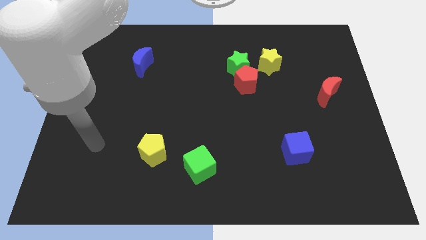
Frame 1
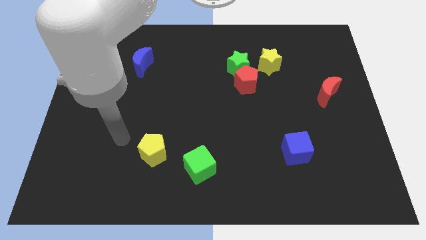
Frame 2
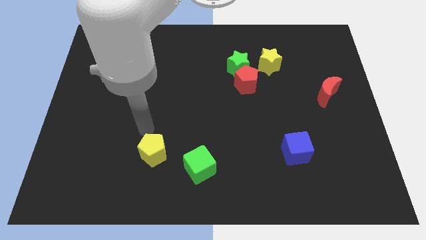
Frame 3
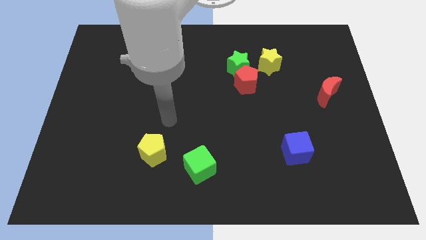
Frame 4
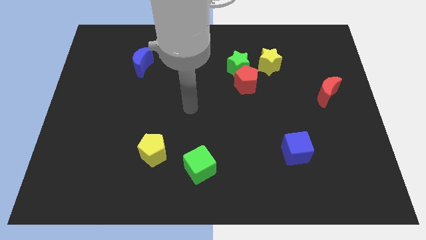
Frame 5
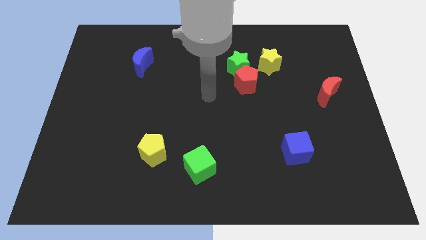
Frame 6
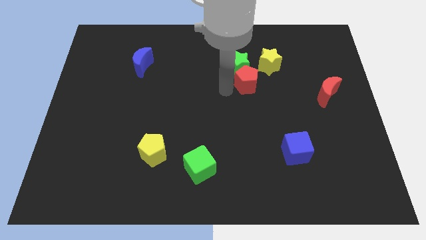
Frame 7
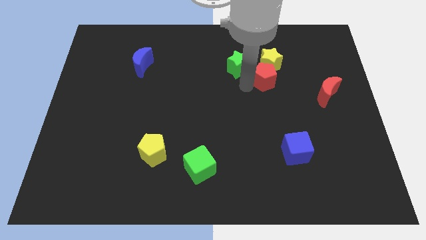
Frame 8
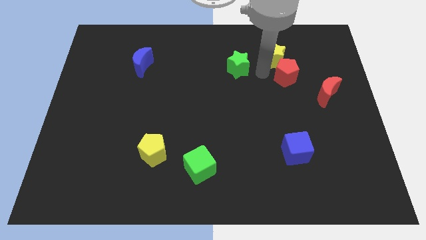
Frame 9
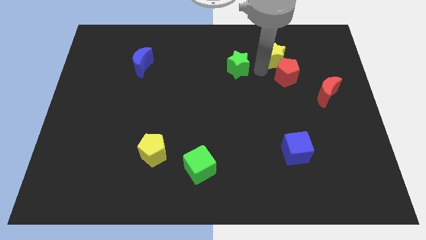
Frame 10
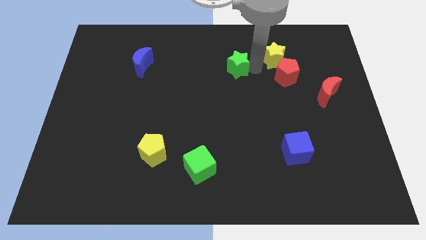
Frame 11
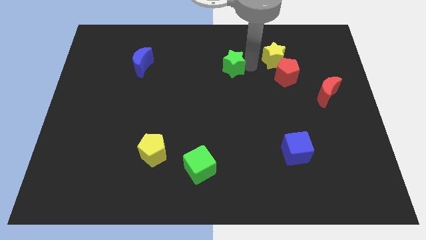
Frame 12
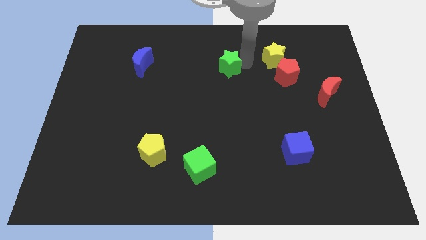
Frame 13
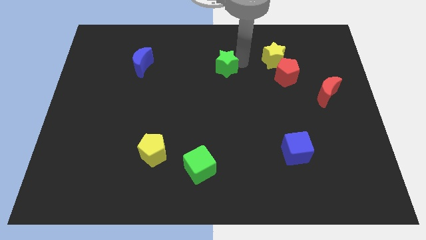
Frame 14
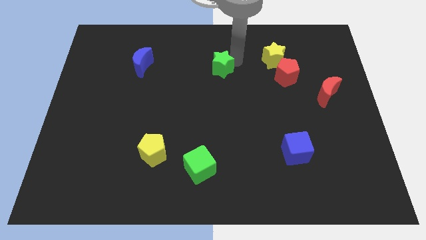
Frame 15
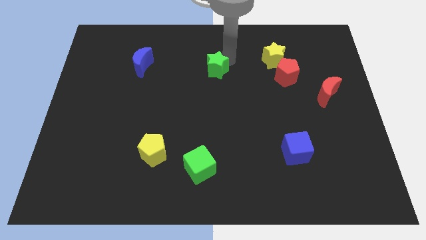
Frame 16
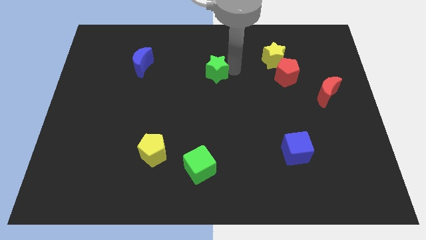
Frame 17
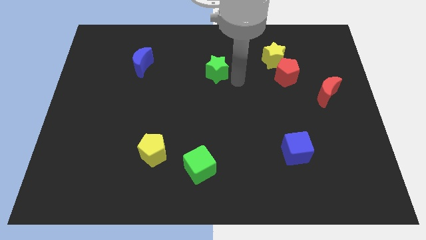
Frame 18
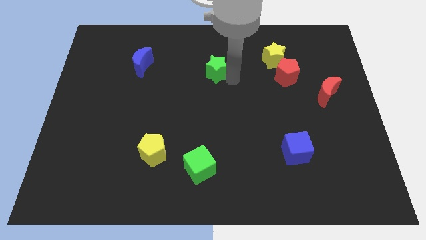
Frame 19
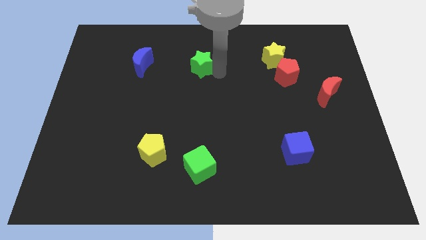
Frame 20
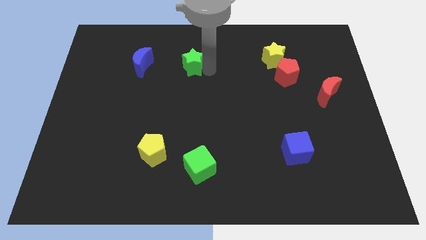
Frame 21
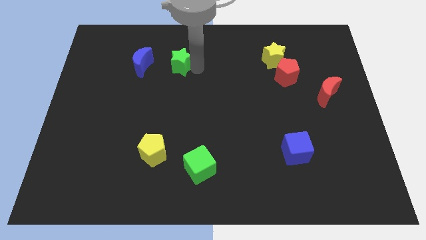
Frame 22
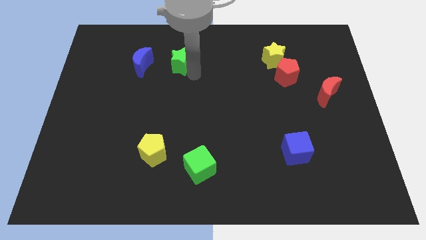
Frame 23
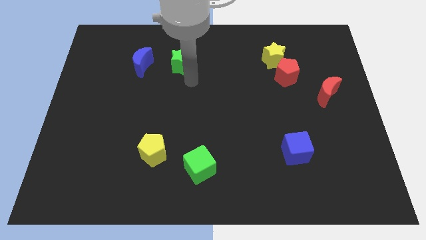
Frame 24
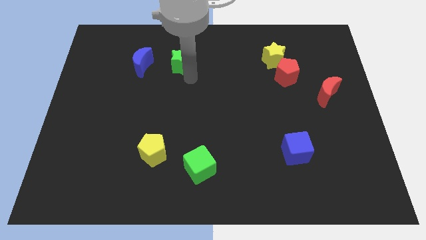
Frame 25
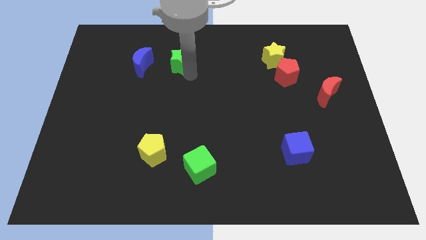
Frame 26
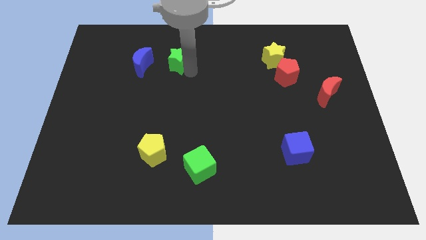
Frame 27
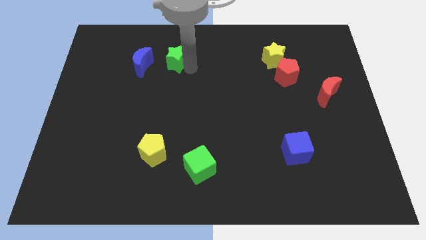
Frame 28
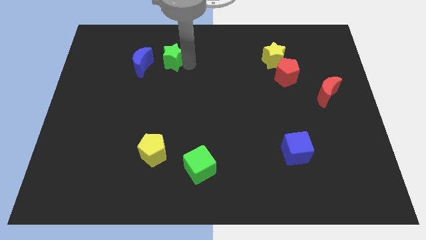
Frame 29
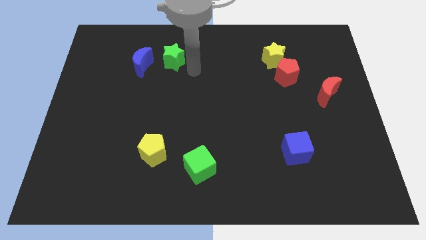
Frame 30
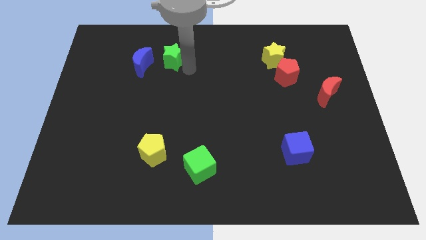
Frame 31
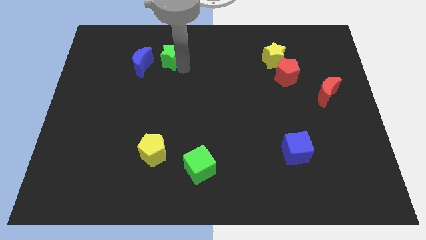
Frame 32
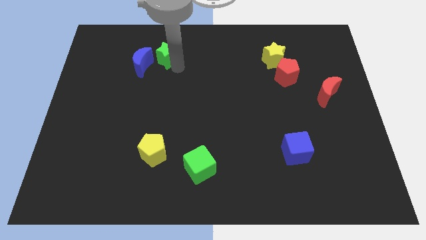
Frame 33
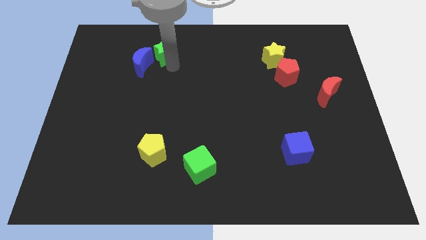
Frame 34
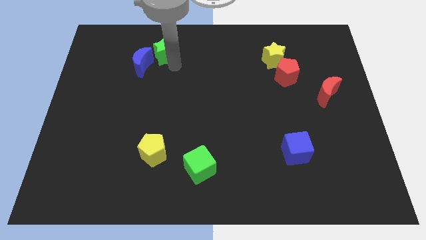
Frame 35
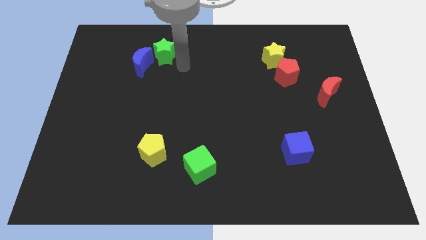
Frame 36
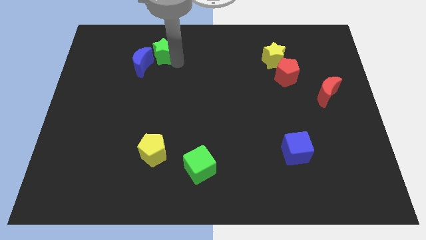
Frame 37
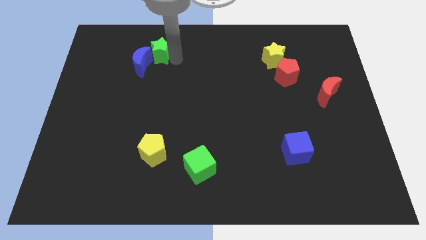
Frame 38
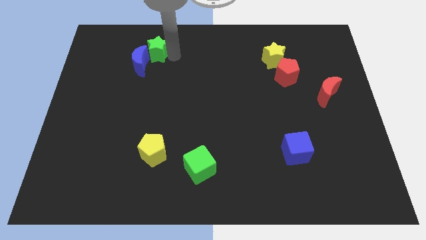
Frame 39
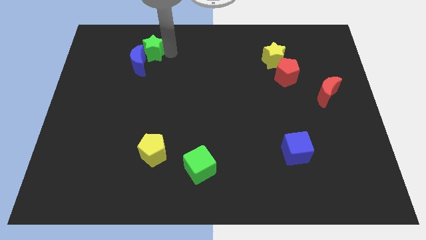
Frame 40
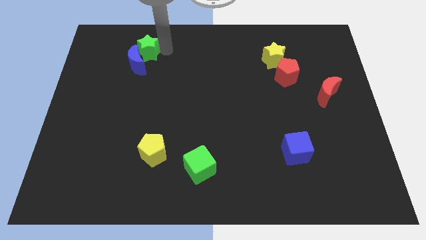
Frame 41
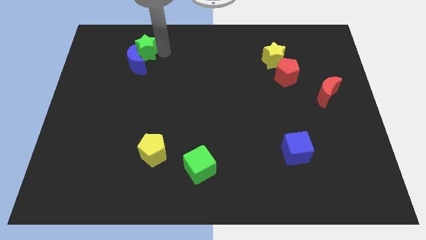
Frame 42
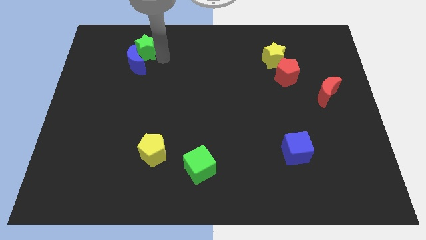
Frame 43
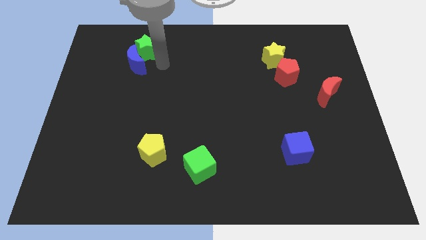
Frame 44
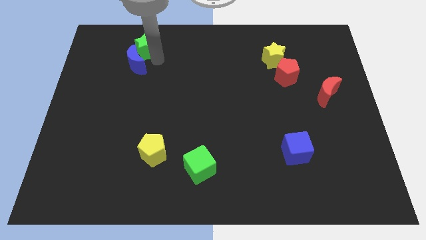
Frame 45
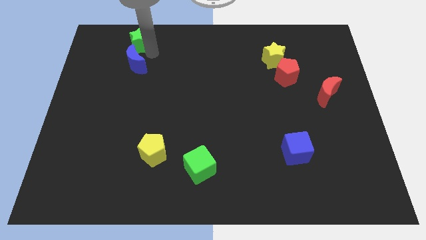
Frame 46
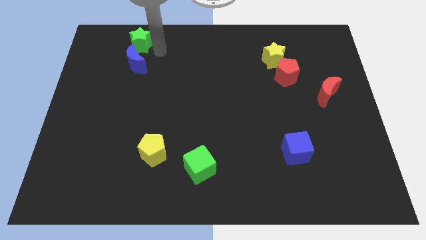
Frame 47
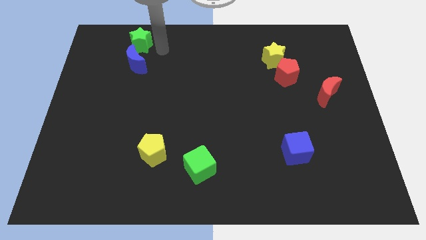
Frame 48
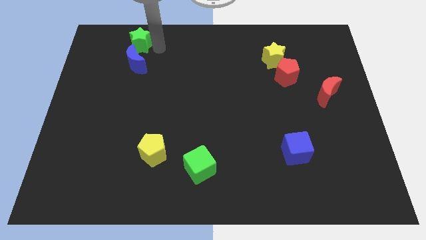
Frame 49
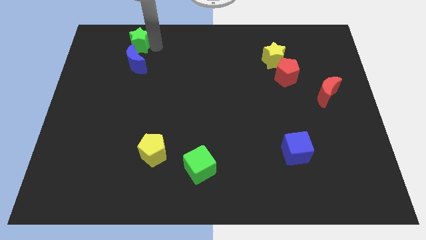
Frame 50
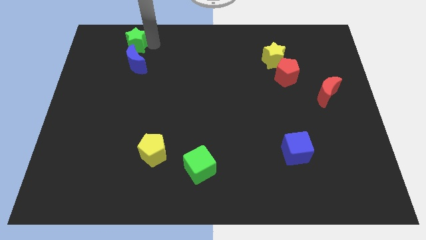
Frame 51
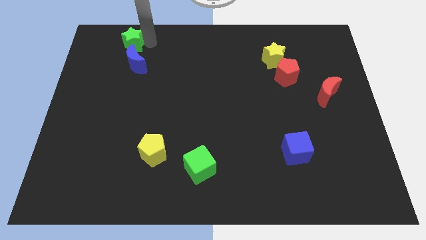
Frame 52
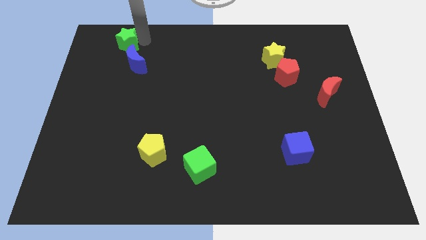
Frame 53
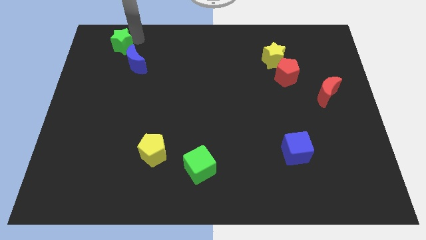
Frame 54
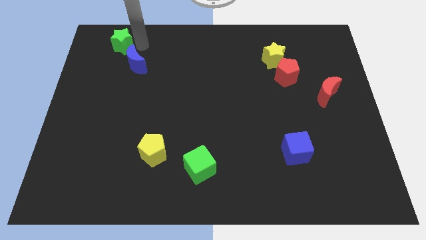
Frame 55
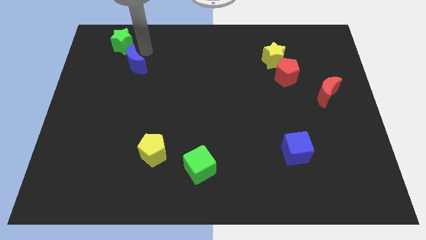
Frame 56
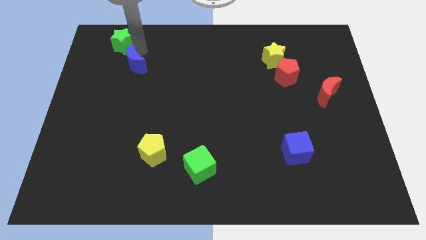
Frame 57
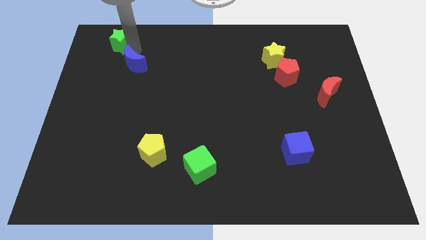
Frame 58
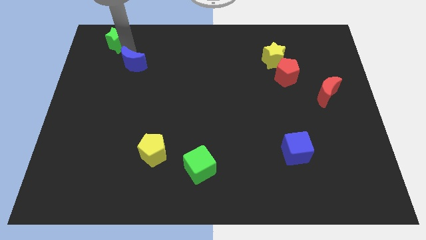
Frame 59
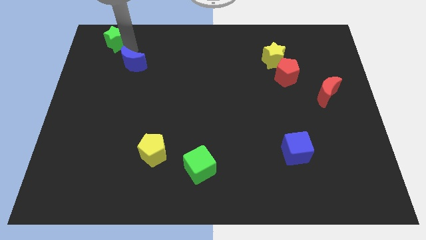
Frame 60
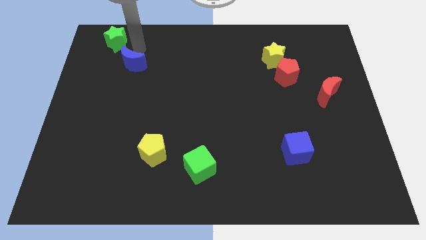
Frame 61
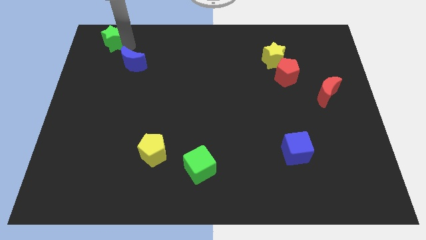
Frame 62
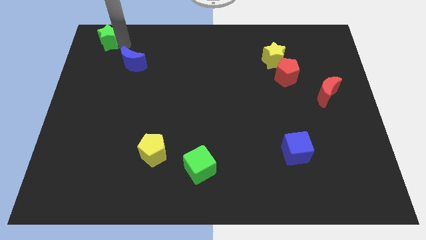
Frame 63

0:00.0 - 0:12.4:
push the green star to the top left of the board
